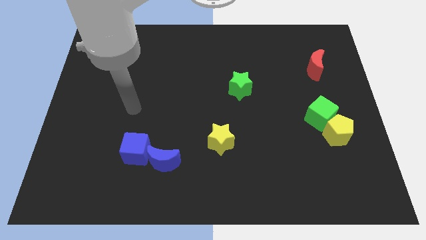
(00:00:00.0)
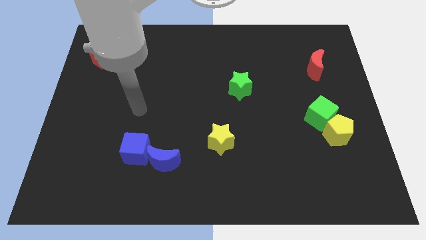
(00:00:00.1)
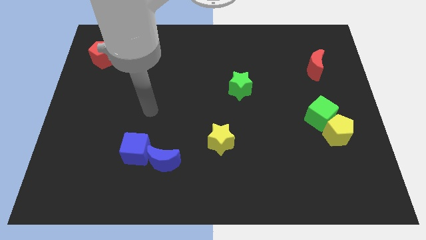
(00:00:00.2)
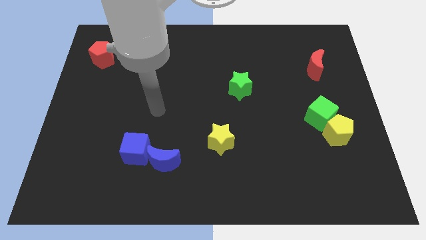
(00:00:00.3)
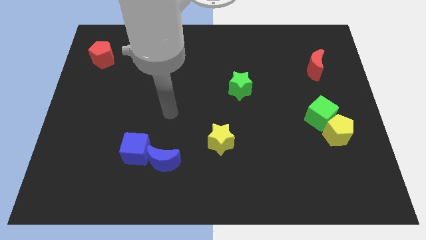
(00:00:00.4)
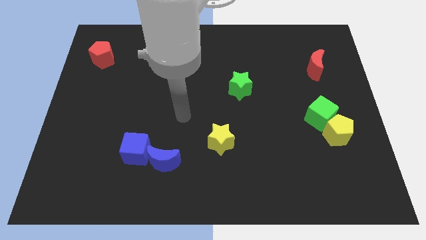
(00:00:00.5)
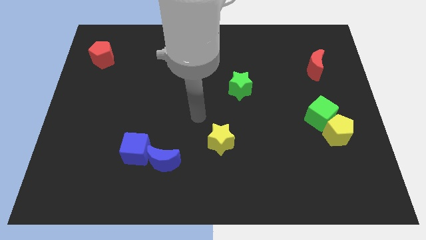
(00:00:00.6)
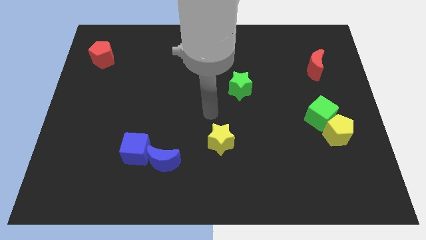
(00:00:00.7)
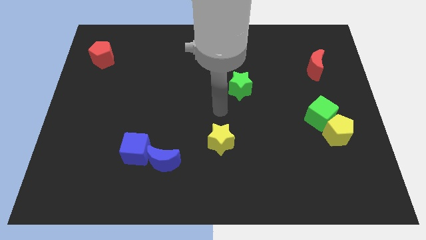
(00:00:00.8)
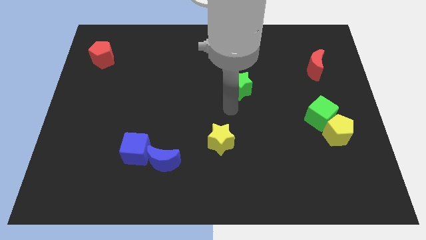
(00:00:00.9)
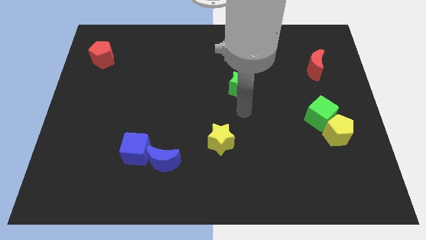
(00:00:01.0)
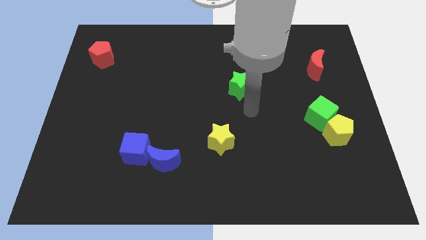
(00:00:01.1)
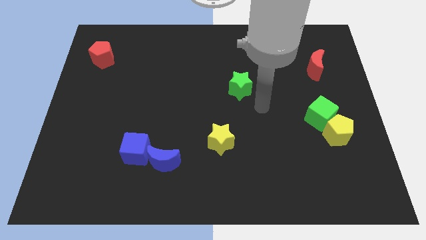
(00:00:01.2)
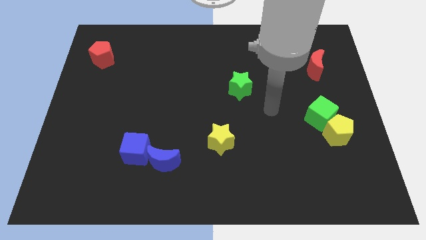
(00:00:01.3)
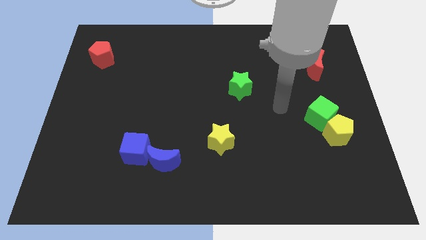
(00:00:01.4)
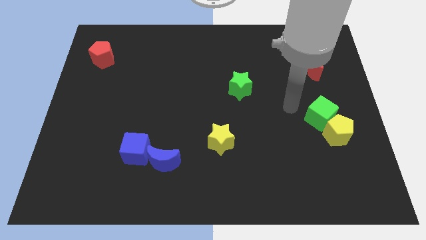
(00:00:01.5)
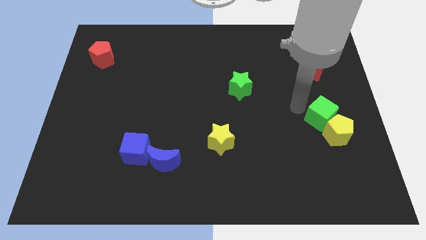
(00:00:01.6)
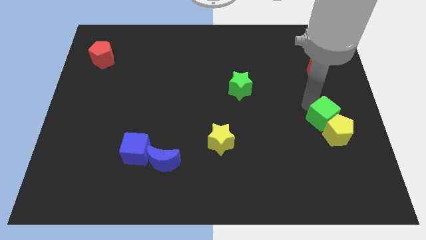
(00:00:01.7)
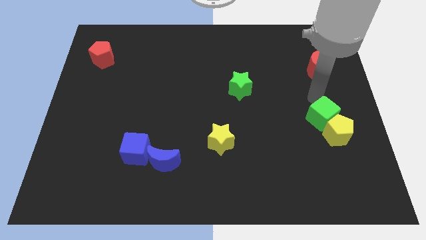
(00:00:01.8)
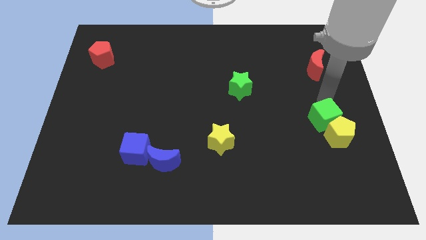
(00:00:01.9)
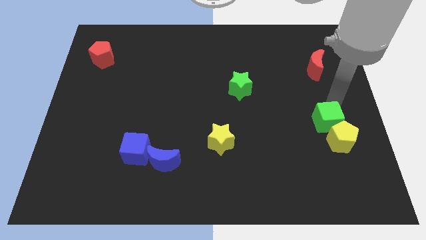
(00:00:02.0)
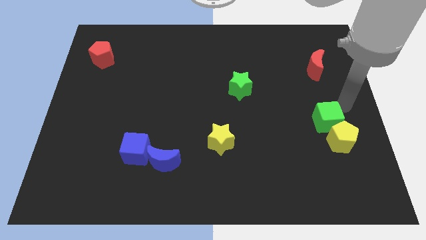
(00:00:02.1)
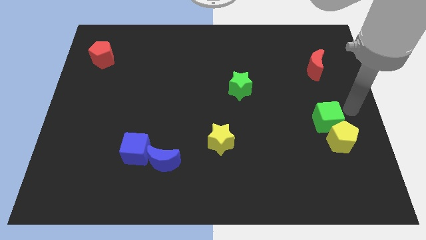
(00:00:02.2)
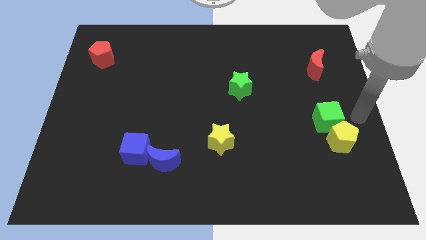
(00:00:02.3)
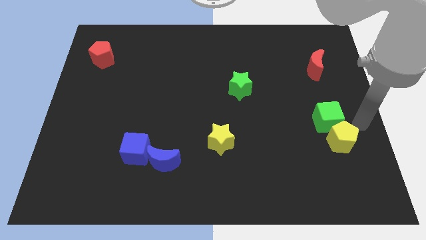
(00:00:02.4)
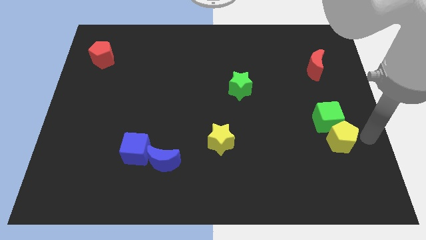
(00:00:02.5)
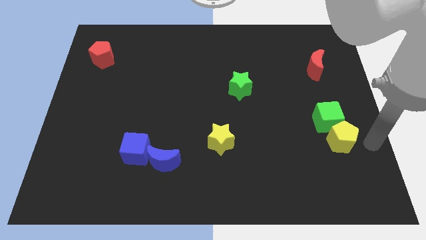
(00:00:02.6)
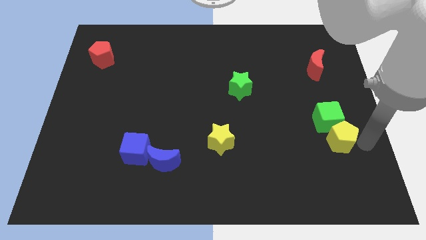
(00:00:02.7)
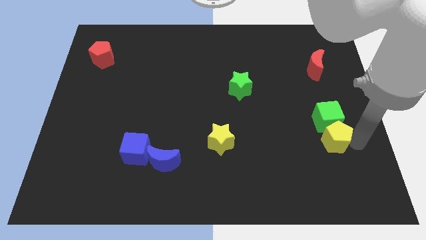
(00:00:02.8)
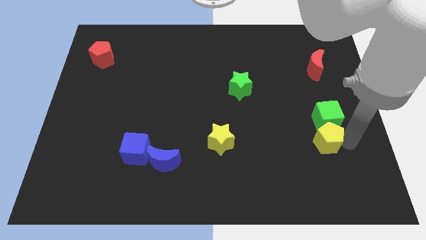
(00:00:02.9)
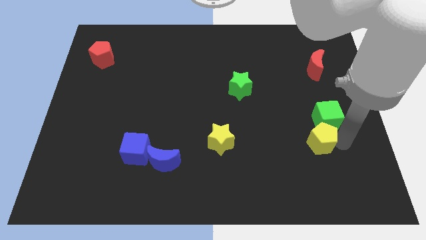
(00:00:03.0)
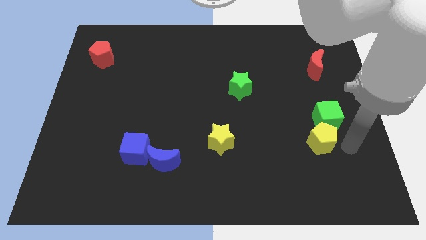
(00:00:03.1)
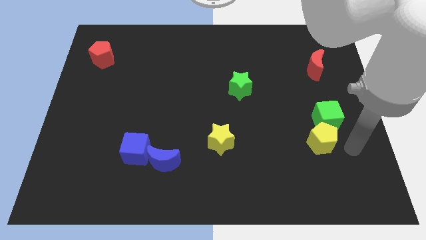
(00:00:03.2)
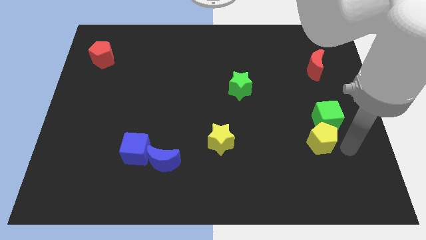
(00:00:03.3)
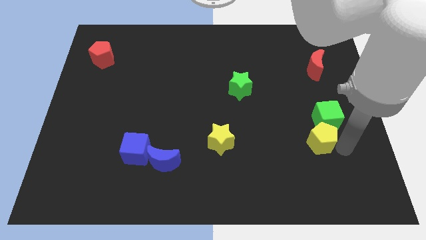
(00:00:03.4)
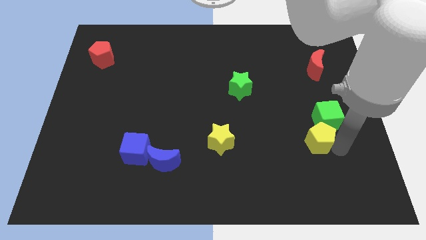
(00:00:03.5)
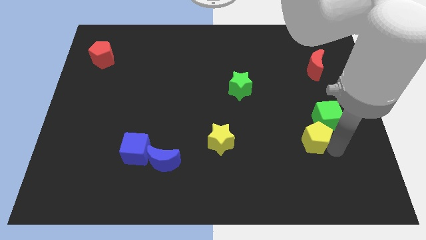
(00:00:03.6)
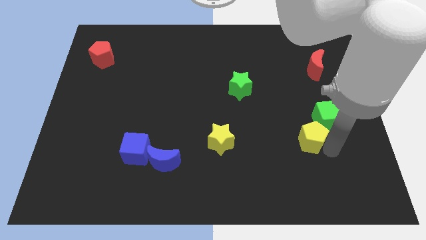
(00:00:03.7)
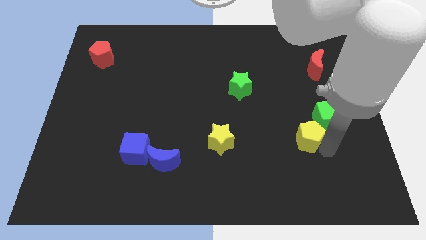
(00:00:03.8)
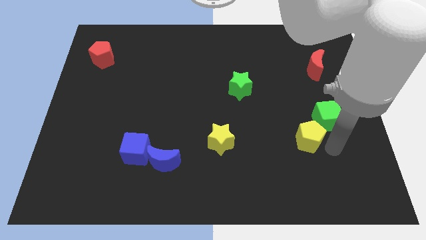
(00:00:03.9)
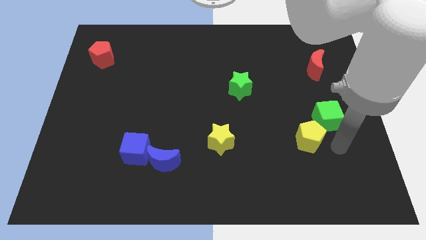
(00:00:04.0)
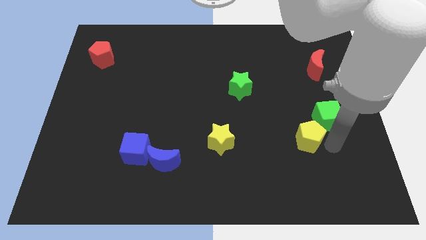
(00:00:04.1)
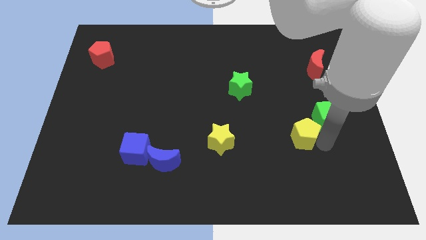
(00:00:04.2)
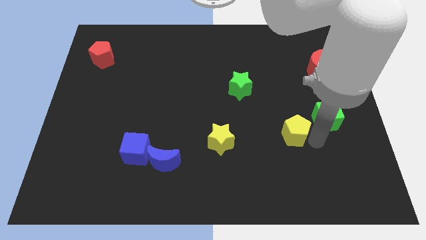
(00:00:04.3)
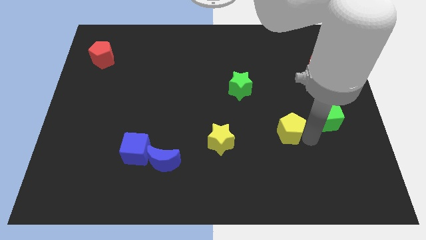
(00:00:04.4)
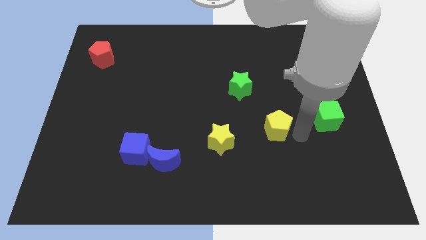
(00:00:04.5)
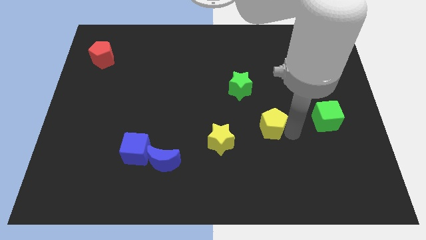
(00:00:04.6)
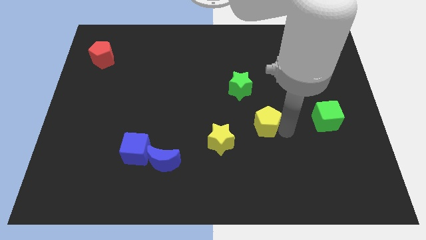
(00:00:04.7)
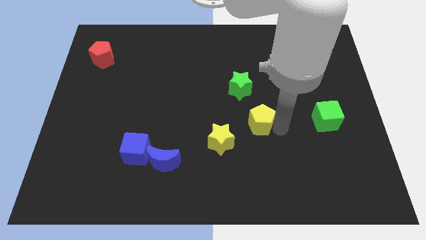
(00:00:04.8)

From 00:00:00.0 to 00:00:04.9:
push the yellow pentagon to the center

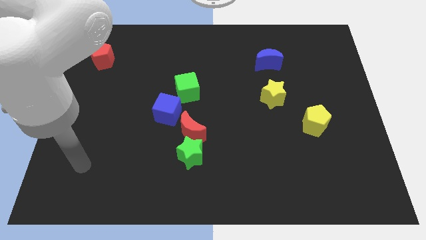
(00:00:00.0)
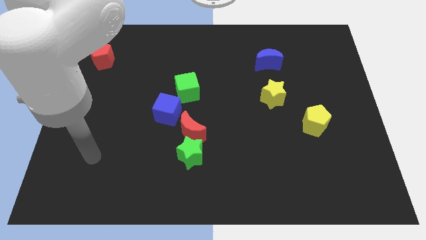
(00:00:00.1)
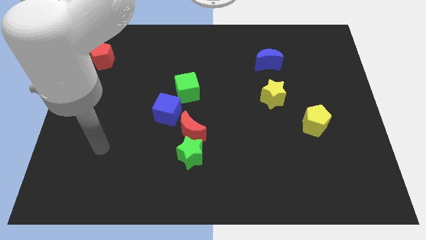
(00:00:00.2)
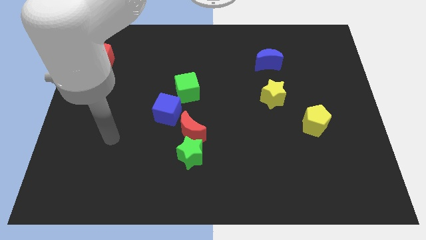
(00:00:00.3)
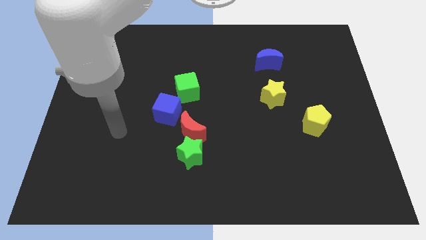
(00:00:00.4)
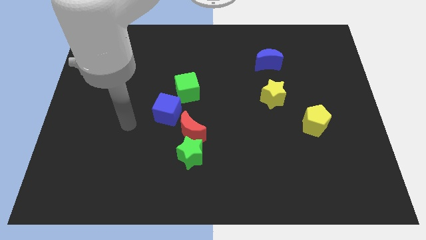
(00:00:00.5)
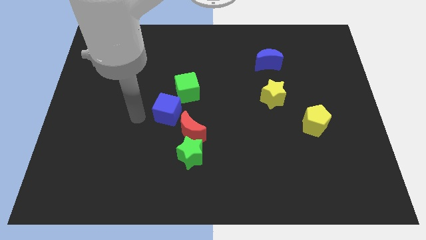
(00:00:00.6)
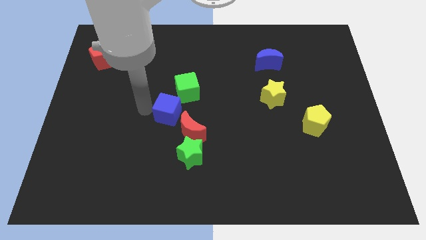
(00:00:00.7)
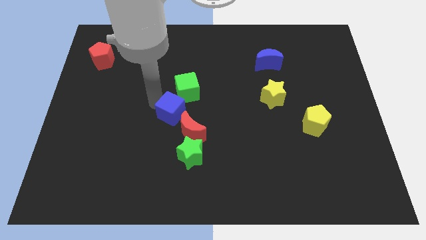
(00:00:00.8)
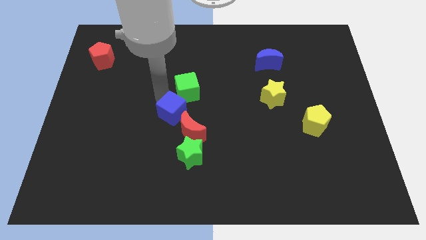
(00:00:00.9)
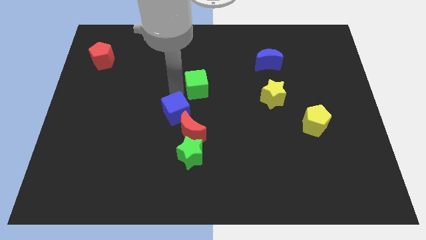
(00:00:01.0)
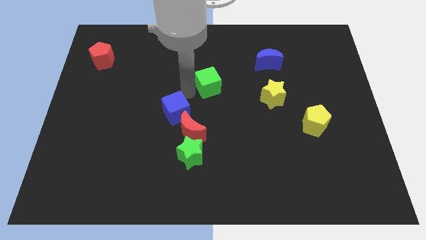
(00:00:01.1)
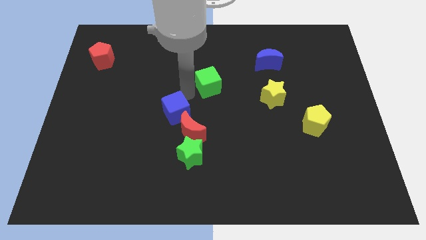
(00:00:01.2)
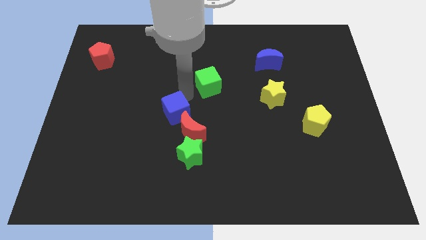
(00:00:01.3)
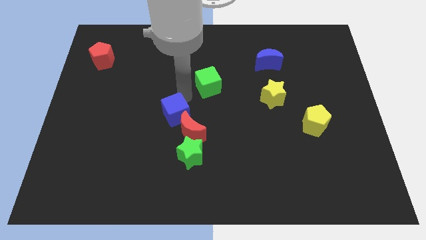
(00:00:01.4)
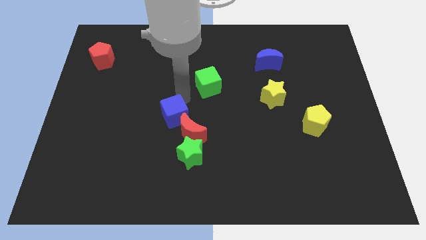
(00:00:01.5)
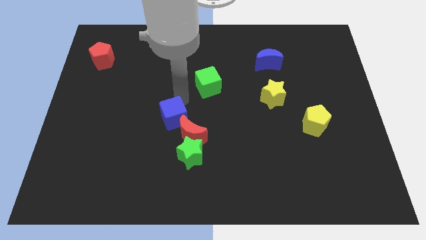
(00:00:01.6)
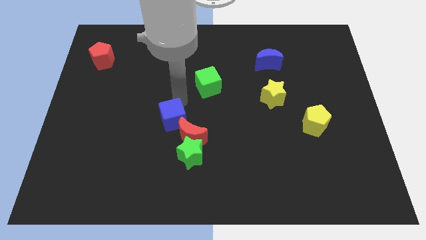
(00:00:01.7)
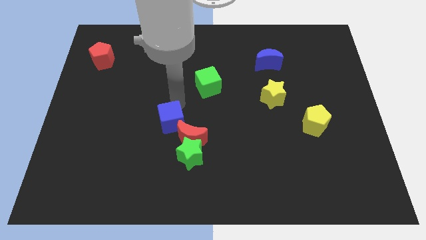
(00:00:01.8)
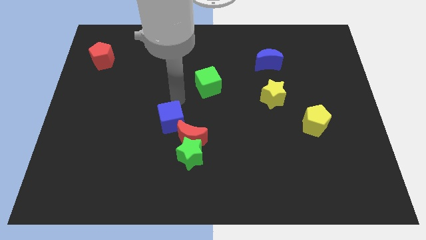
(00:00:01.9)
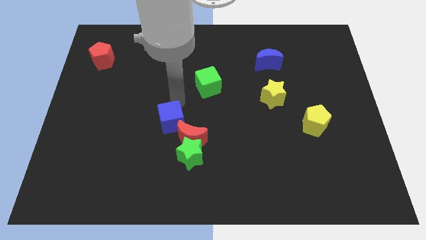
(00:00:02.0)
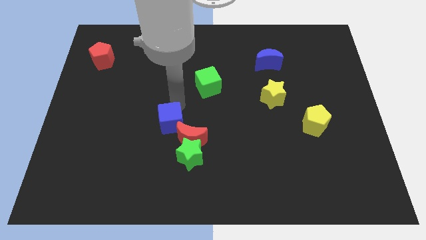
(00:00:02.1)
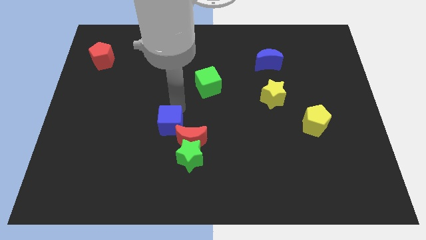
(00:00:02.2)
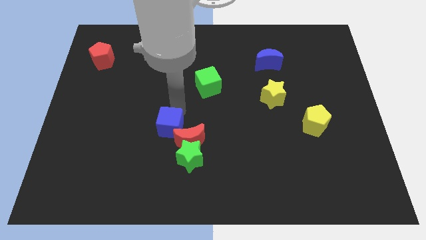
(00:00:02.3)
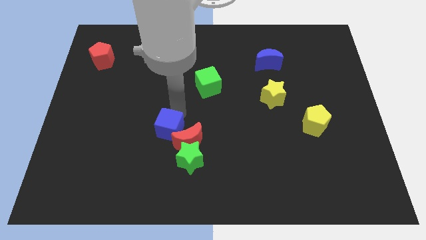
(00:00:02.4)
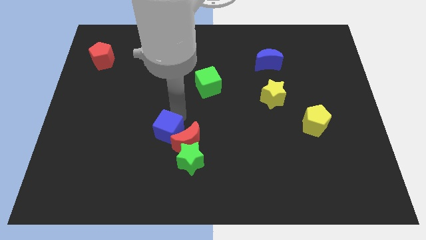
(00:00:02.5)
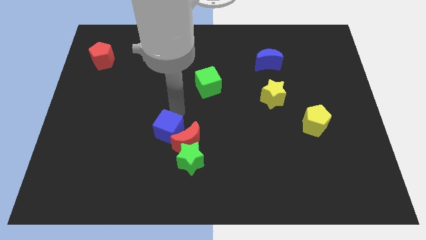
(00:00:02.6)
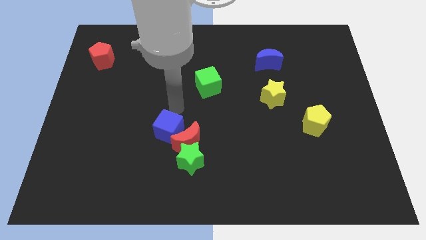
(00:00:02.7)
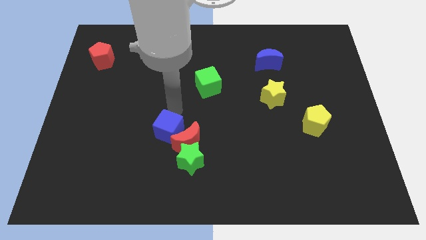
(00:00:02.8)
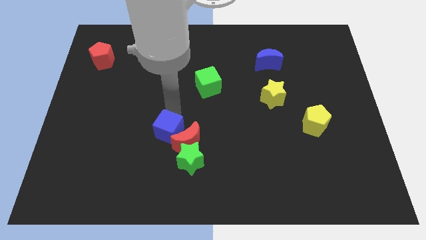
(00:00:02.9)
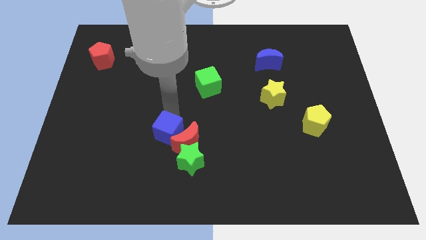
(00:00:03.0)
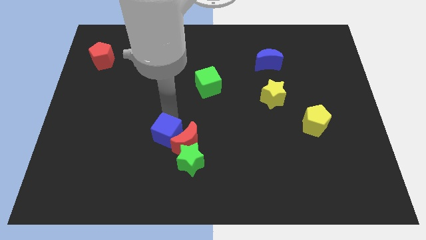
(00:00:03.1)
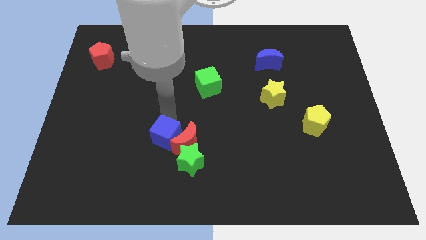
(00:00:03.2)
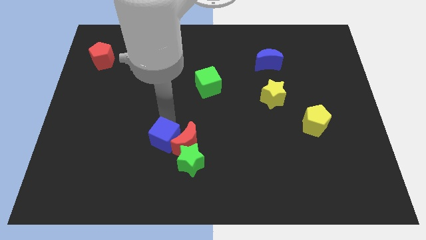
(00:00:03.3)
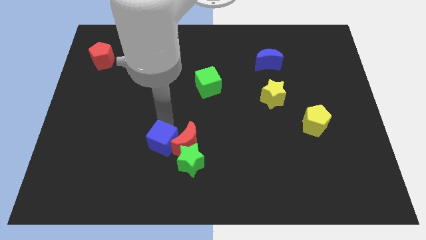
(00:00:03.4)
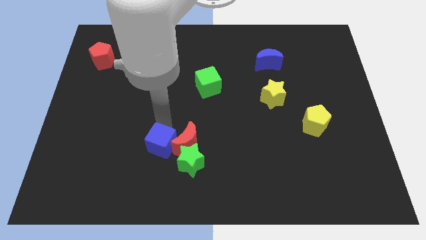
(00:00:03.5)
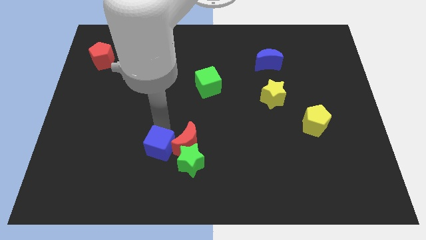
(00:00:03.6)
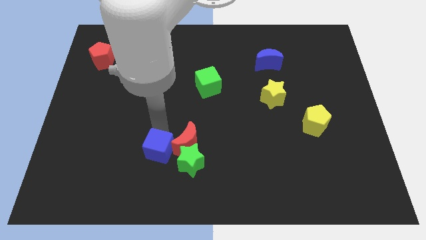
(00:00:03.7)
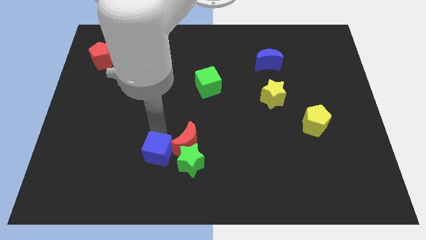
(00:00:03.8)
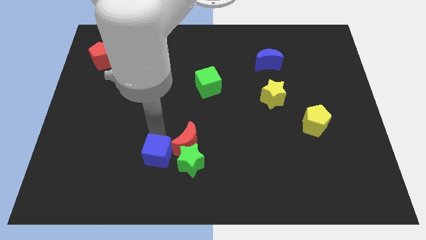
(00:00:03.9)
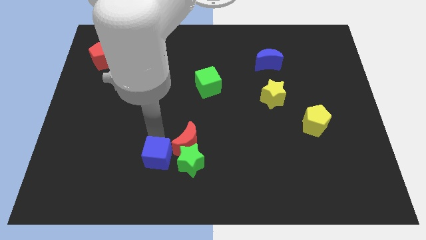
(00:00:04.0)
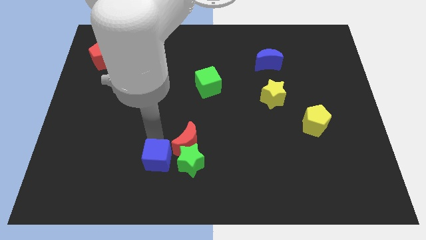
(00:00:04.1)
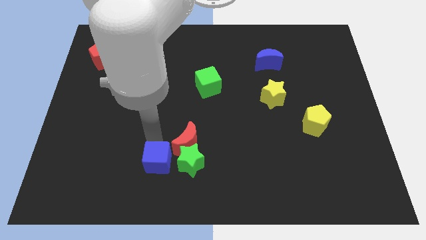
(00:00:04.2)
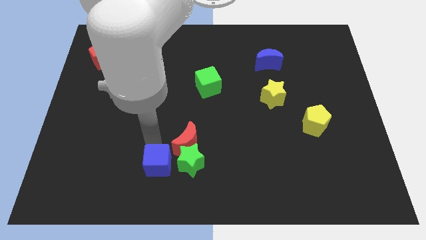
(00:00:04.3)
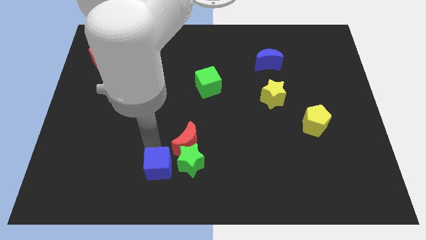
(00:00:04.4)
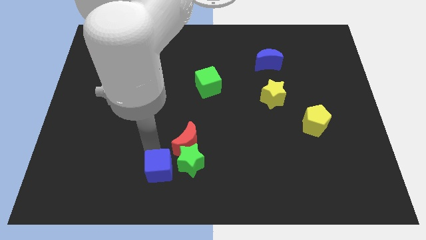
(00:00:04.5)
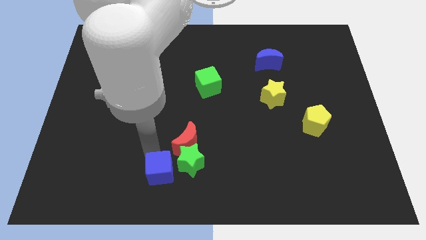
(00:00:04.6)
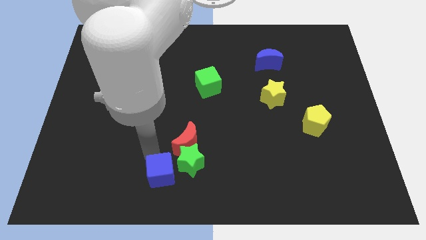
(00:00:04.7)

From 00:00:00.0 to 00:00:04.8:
move the blue cube to the bottom side
